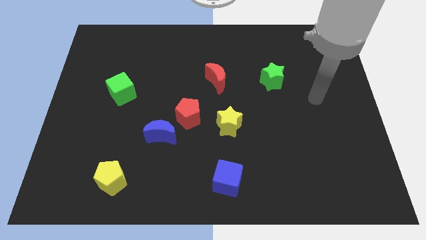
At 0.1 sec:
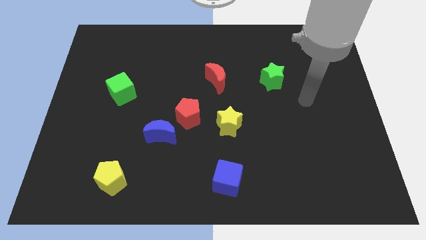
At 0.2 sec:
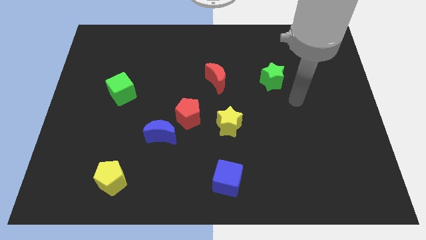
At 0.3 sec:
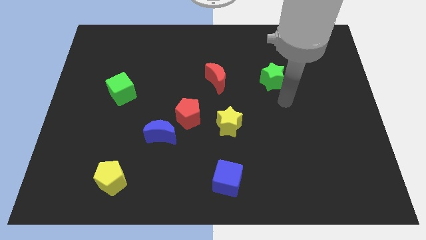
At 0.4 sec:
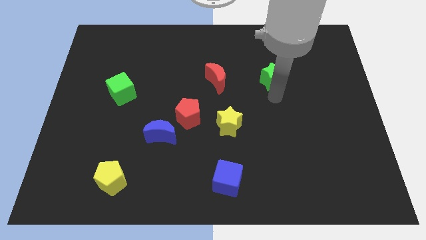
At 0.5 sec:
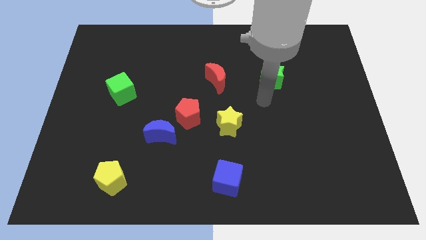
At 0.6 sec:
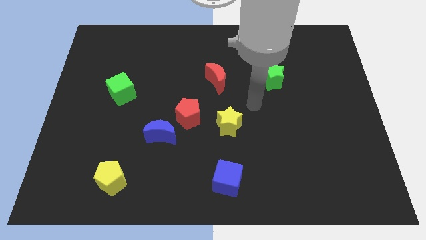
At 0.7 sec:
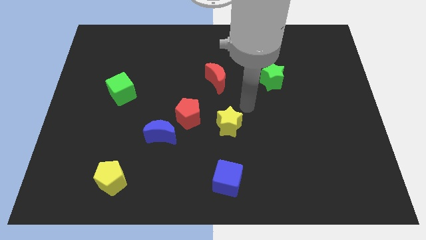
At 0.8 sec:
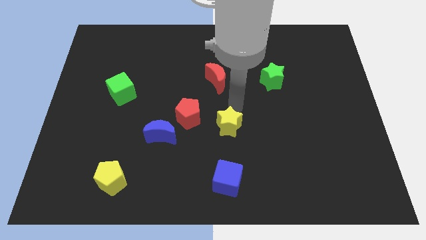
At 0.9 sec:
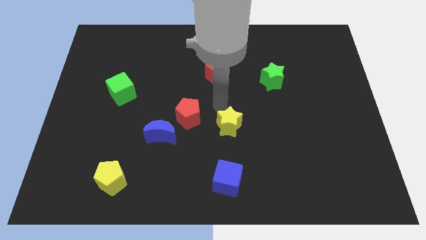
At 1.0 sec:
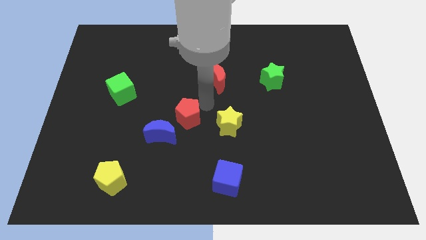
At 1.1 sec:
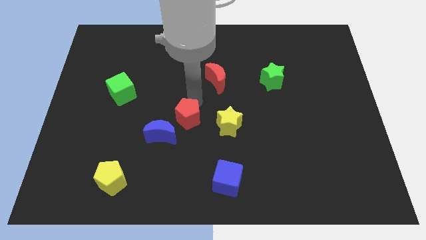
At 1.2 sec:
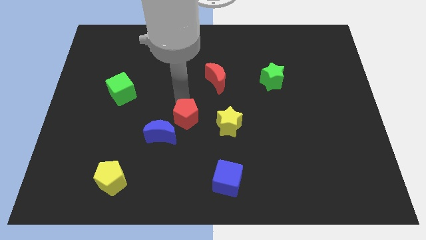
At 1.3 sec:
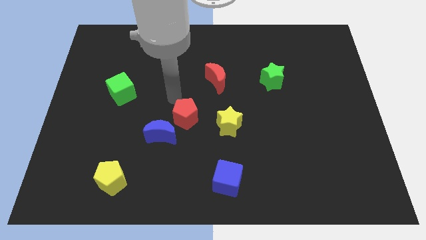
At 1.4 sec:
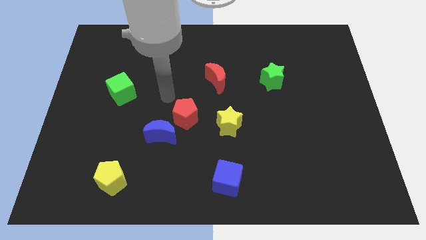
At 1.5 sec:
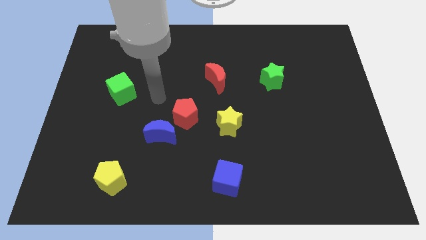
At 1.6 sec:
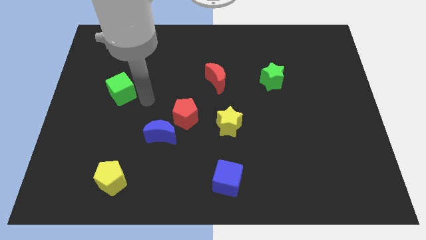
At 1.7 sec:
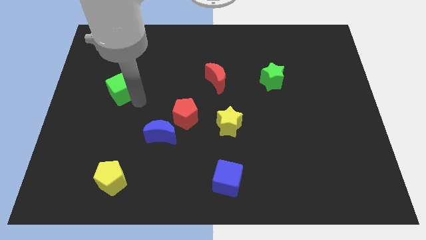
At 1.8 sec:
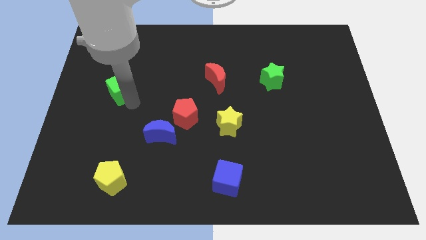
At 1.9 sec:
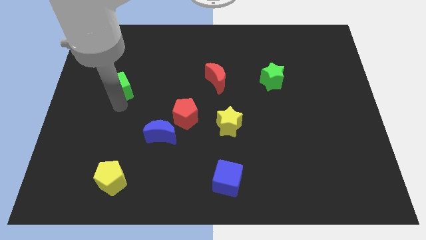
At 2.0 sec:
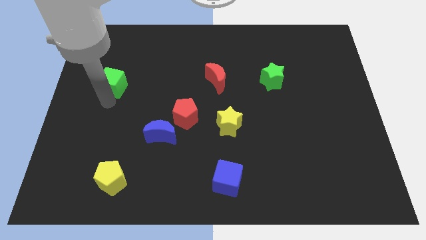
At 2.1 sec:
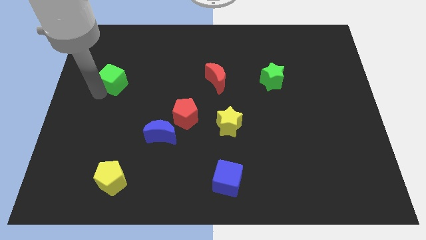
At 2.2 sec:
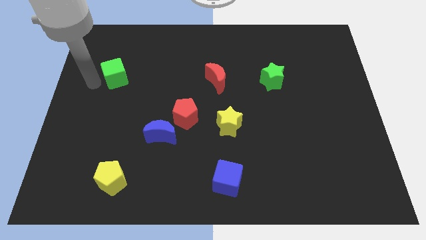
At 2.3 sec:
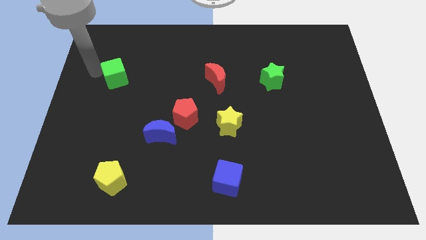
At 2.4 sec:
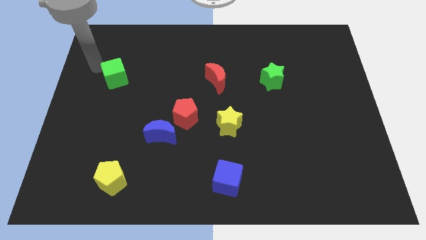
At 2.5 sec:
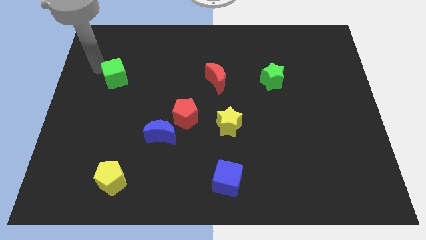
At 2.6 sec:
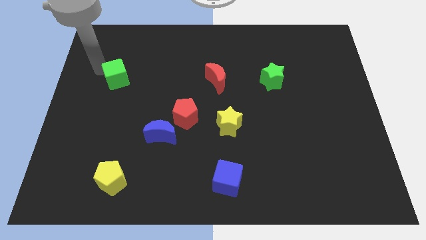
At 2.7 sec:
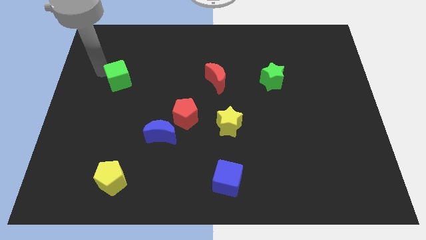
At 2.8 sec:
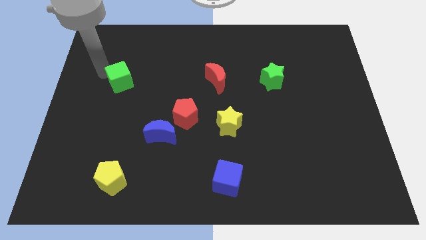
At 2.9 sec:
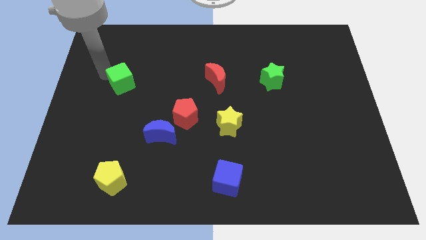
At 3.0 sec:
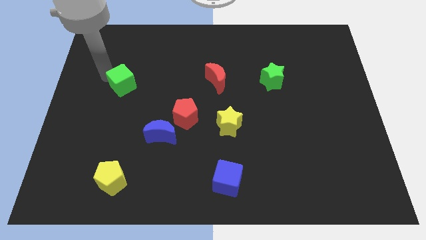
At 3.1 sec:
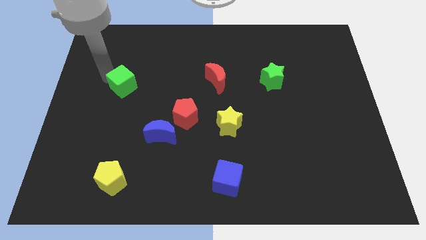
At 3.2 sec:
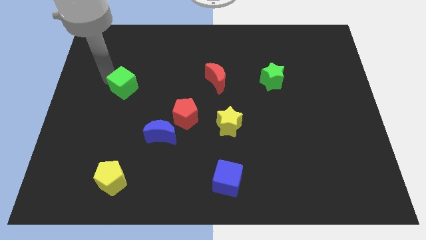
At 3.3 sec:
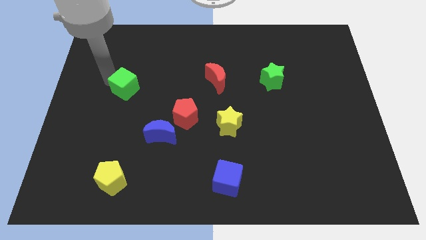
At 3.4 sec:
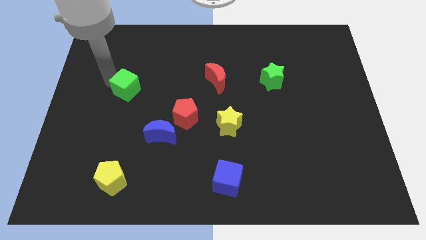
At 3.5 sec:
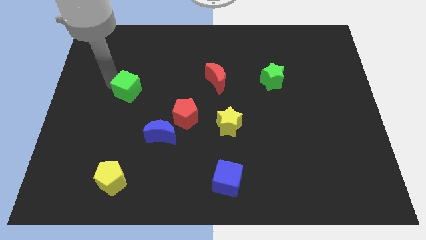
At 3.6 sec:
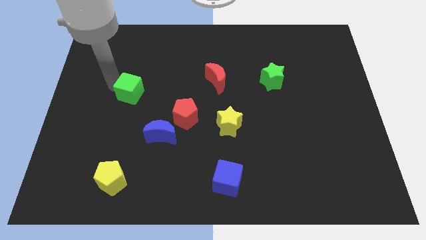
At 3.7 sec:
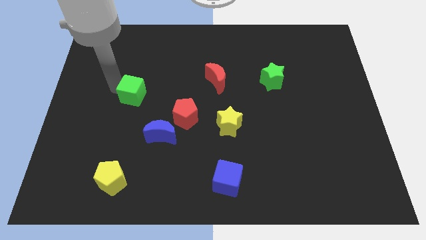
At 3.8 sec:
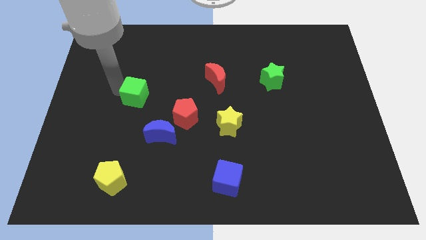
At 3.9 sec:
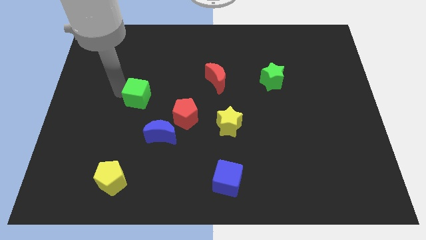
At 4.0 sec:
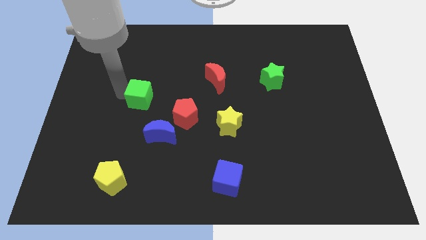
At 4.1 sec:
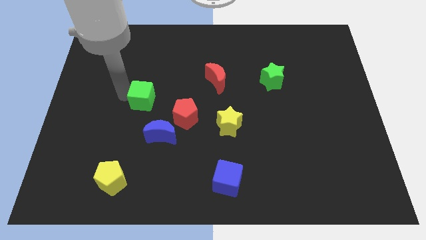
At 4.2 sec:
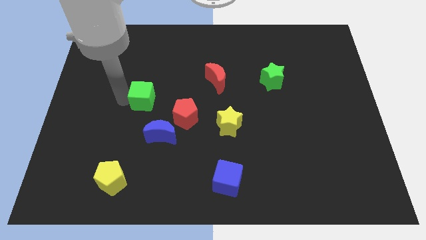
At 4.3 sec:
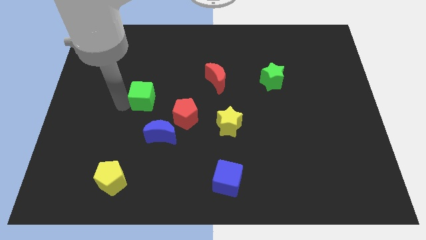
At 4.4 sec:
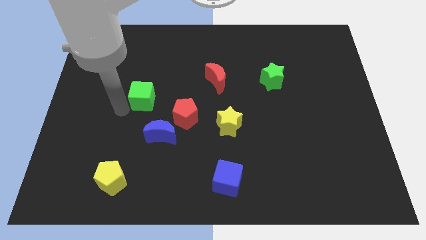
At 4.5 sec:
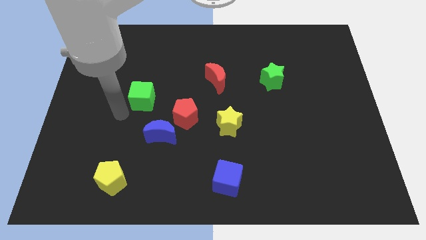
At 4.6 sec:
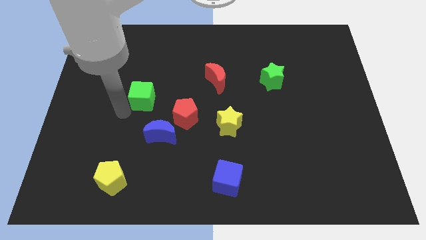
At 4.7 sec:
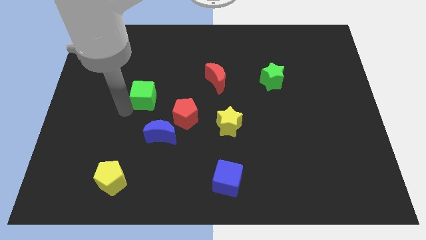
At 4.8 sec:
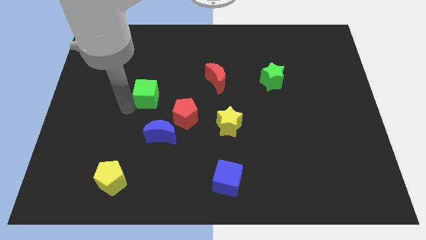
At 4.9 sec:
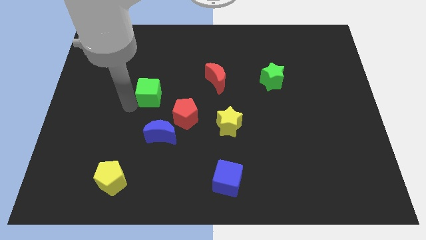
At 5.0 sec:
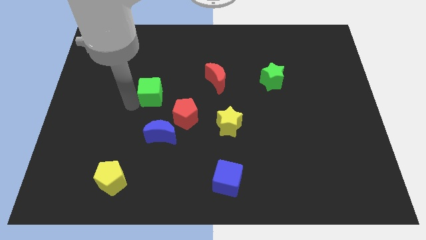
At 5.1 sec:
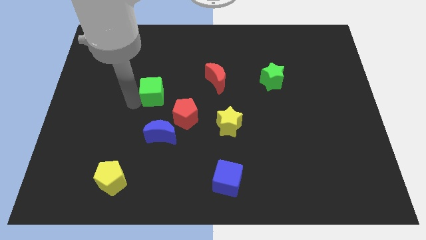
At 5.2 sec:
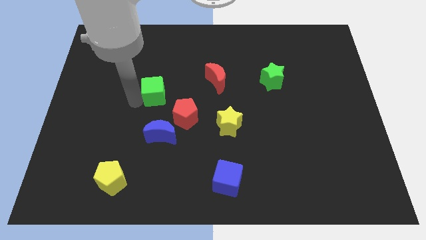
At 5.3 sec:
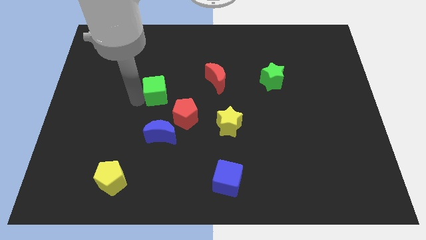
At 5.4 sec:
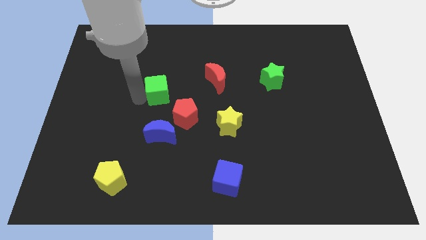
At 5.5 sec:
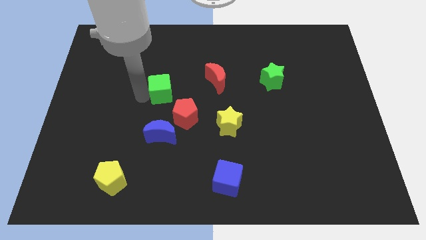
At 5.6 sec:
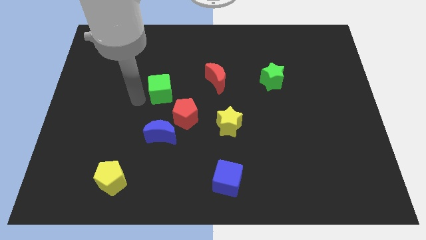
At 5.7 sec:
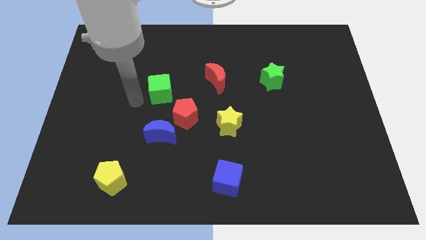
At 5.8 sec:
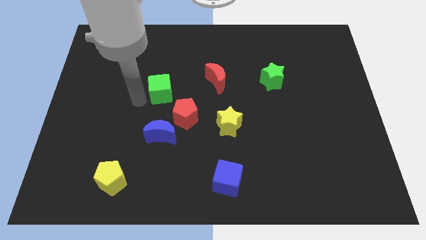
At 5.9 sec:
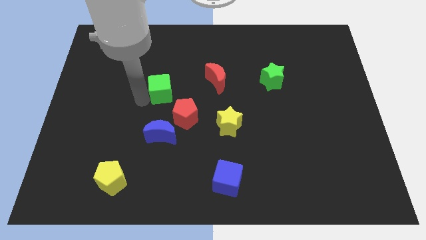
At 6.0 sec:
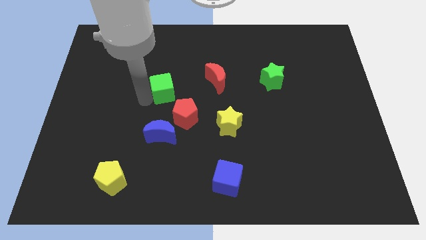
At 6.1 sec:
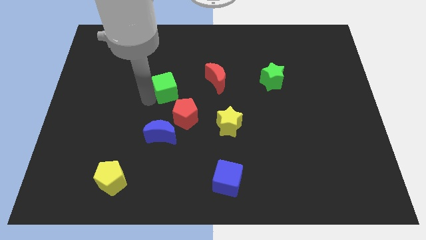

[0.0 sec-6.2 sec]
push the green cube to the top side of the red pentagon

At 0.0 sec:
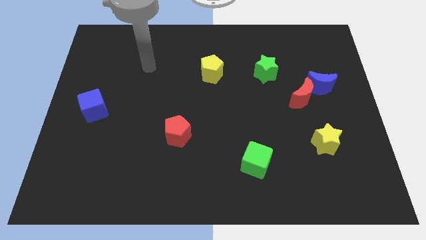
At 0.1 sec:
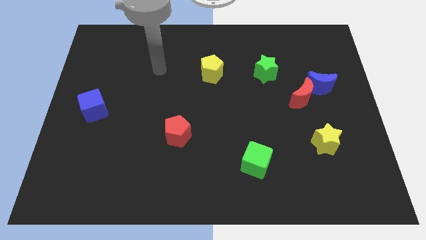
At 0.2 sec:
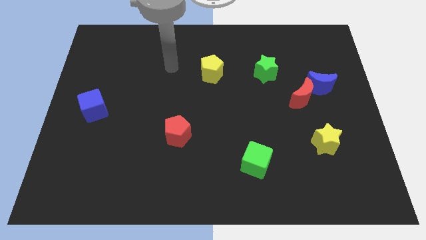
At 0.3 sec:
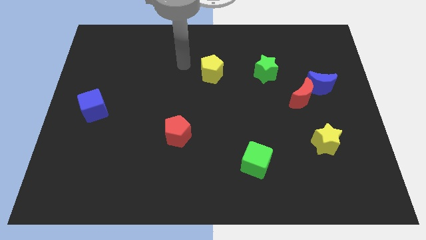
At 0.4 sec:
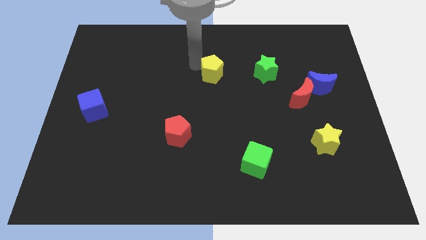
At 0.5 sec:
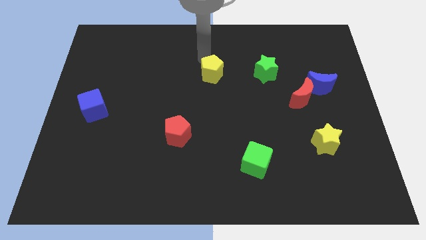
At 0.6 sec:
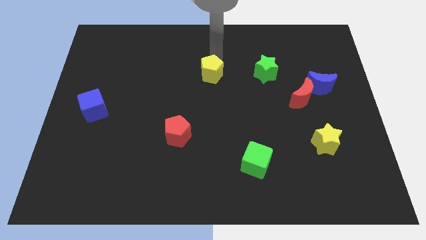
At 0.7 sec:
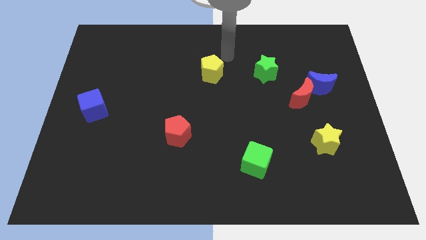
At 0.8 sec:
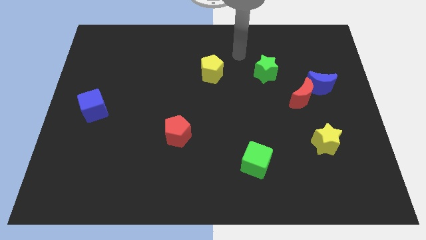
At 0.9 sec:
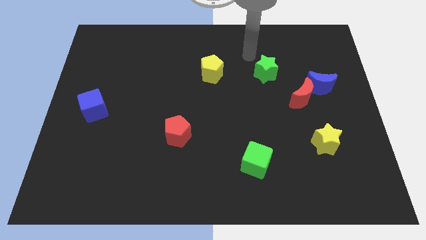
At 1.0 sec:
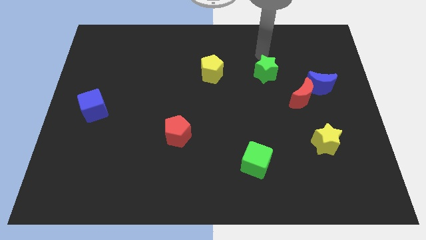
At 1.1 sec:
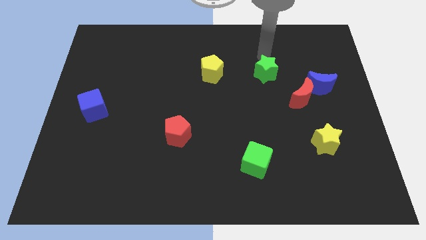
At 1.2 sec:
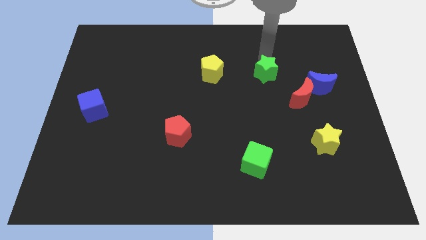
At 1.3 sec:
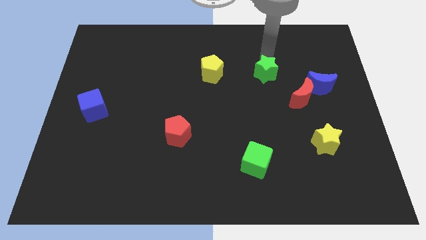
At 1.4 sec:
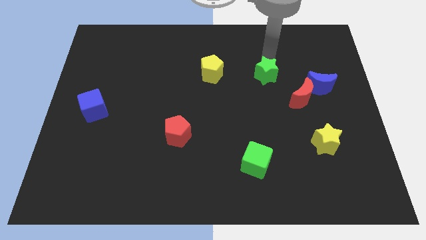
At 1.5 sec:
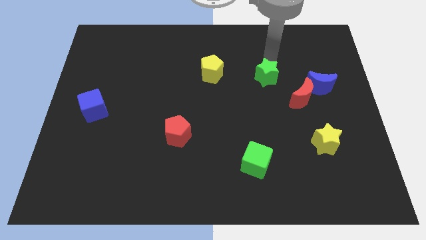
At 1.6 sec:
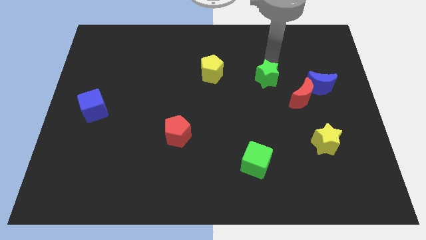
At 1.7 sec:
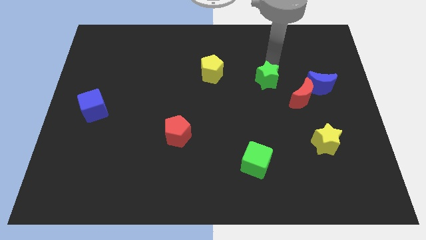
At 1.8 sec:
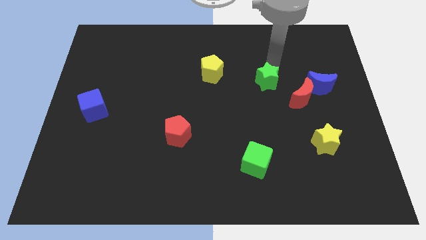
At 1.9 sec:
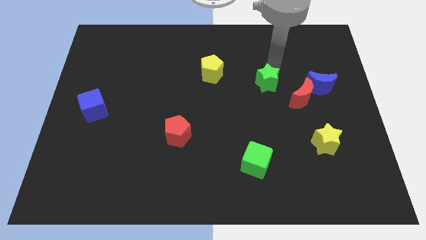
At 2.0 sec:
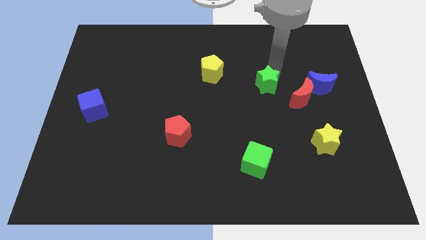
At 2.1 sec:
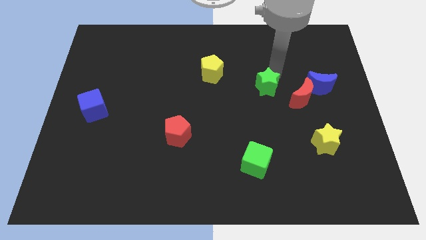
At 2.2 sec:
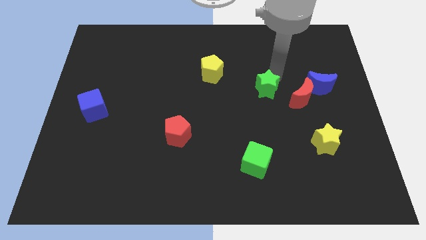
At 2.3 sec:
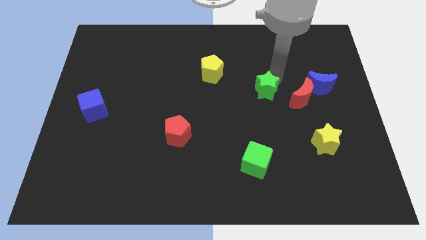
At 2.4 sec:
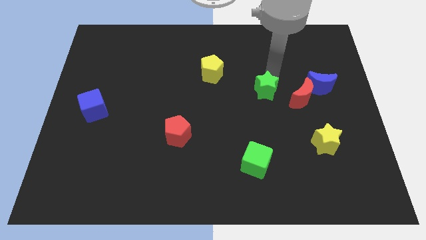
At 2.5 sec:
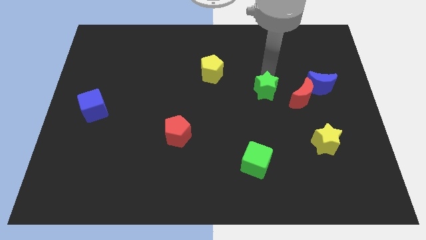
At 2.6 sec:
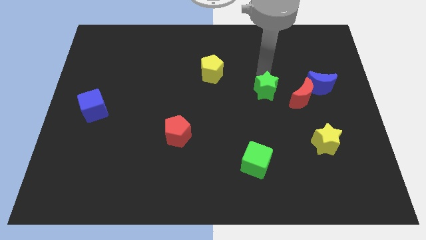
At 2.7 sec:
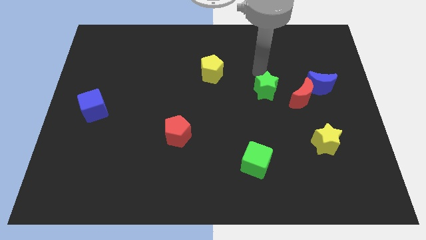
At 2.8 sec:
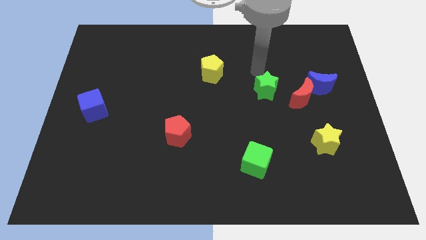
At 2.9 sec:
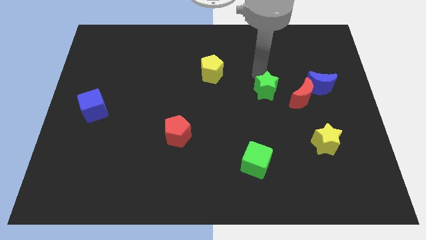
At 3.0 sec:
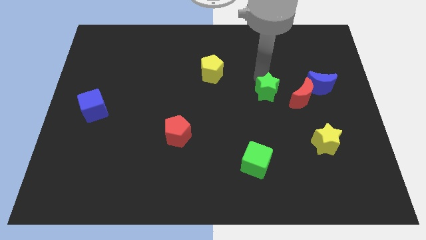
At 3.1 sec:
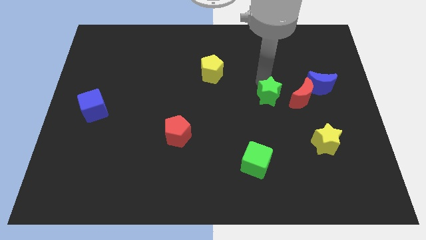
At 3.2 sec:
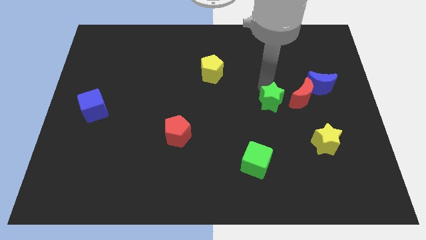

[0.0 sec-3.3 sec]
put the green star to the bottom left side of the red moon
